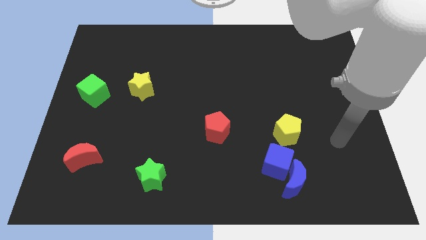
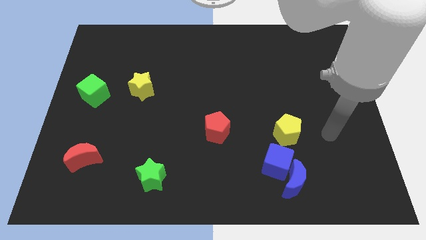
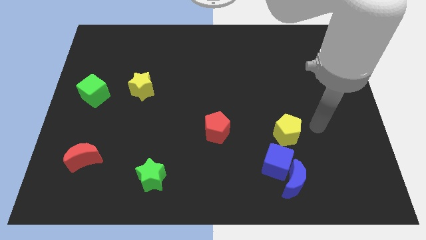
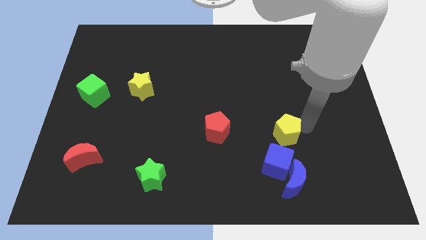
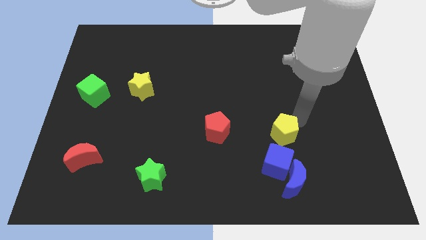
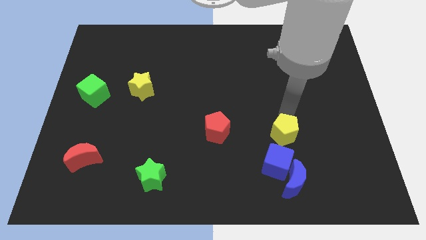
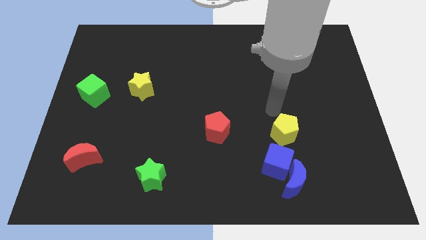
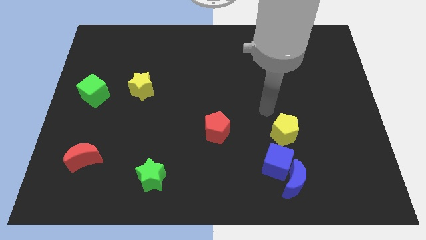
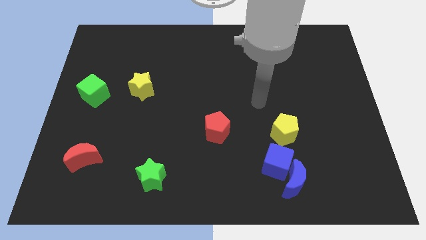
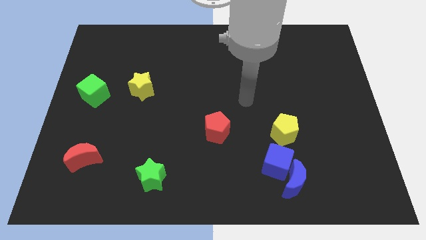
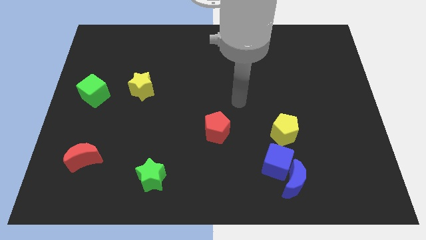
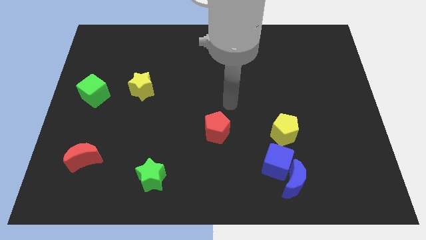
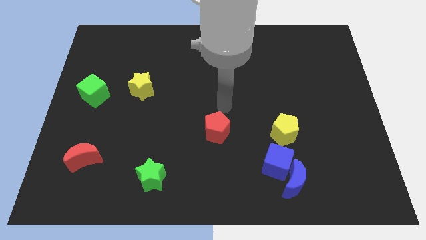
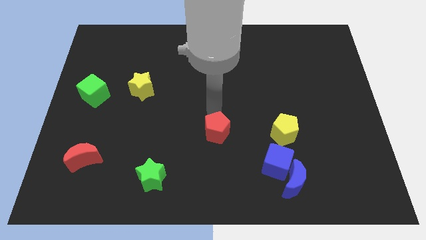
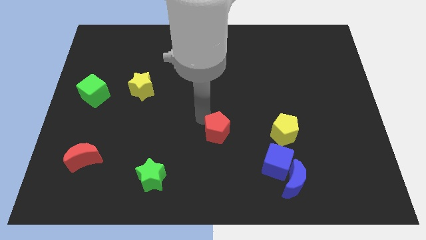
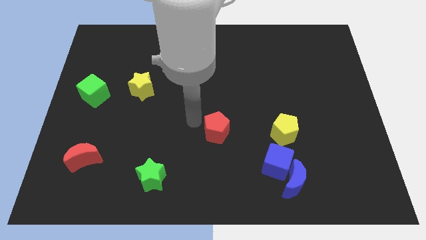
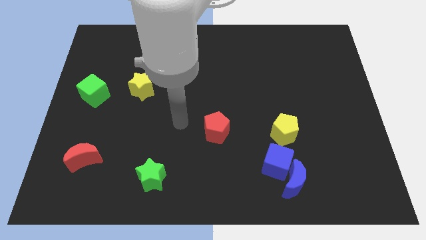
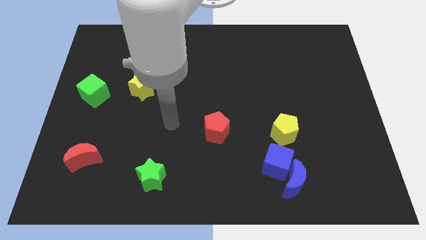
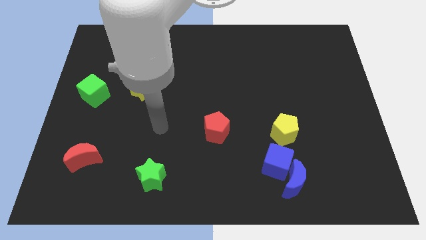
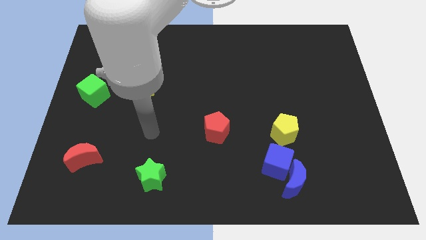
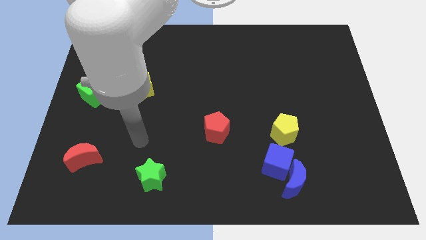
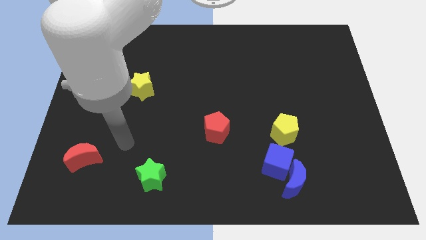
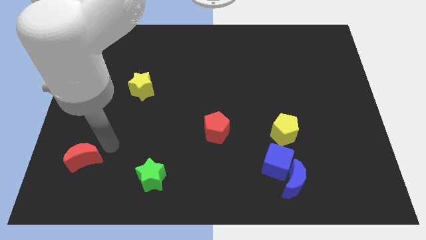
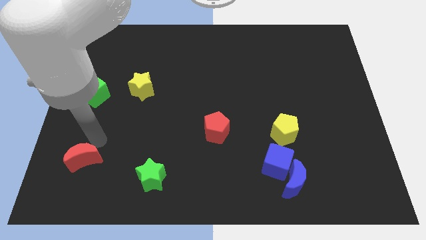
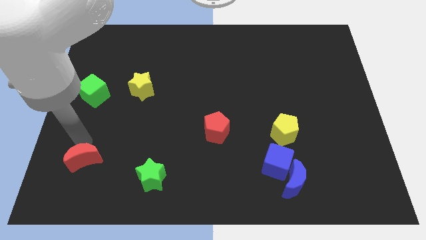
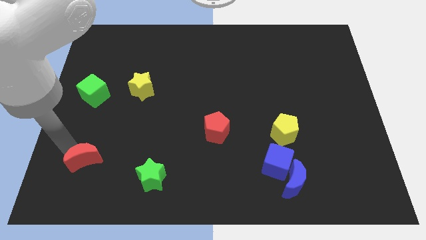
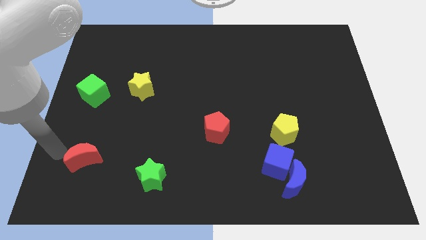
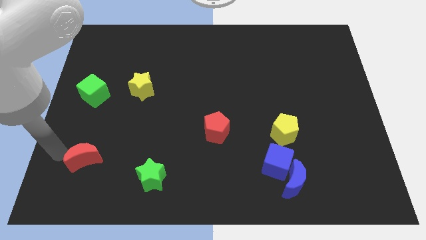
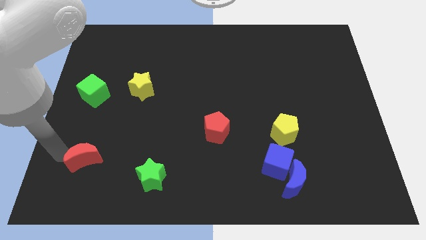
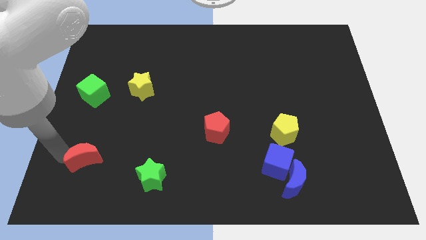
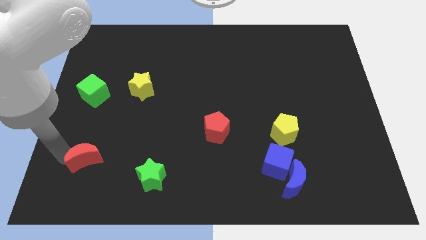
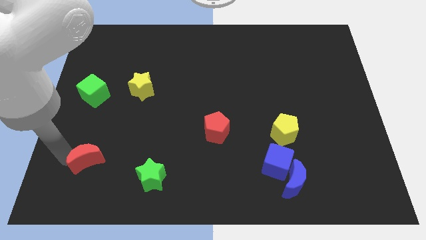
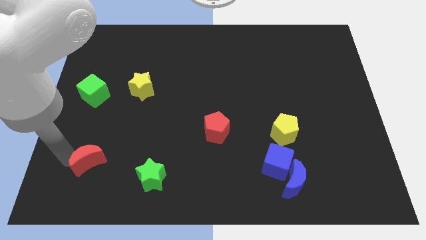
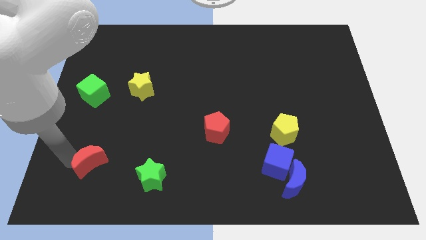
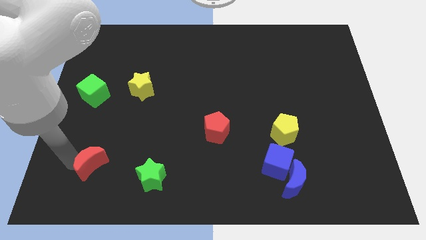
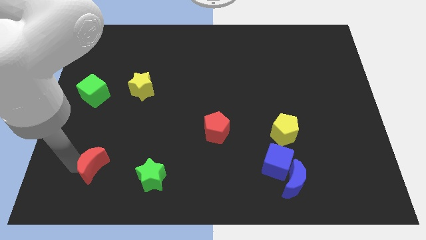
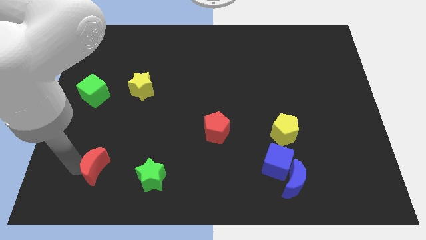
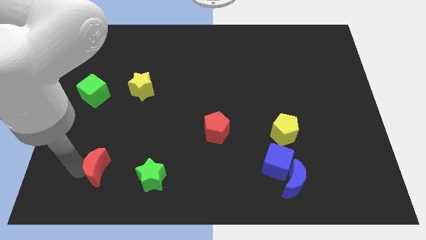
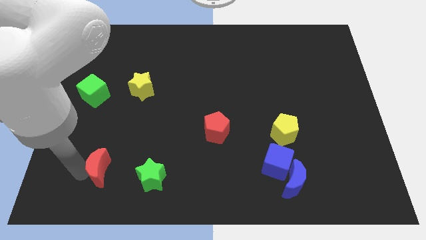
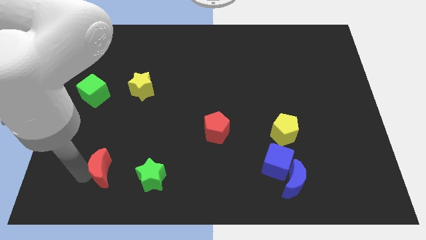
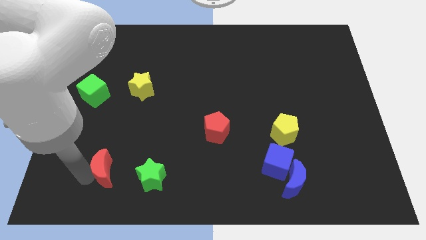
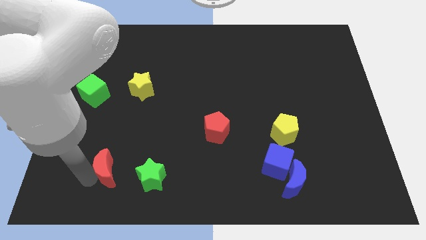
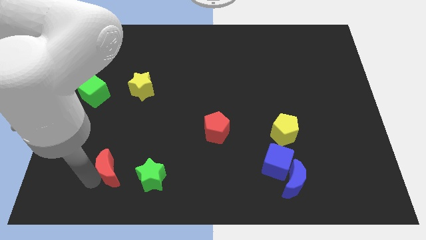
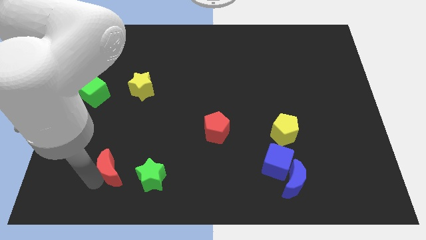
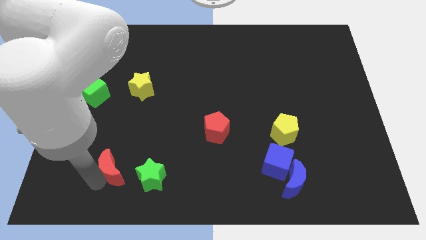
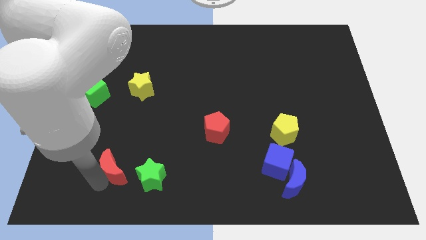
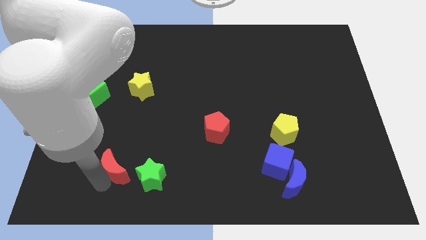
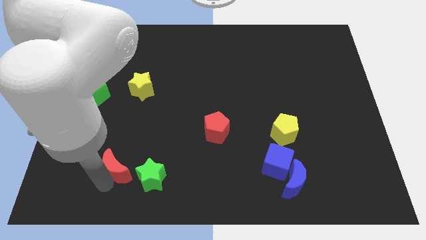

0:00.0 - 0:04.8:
move the red moon right slightly

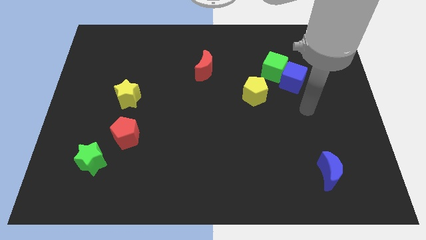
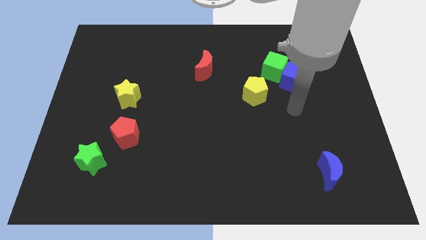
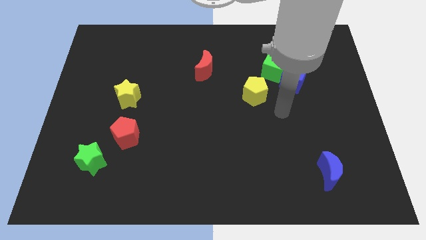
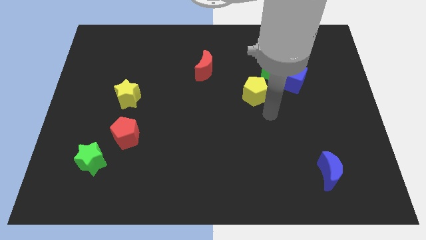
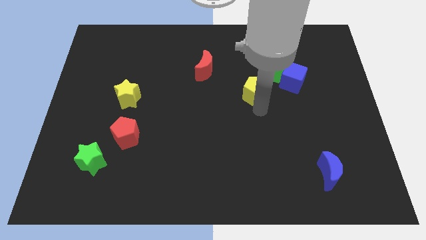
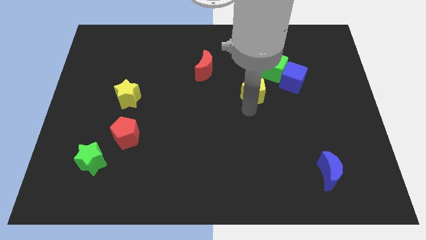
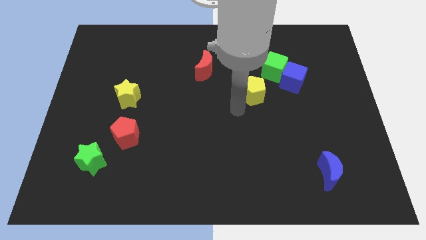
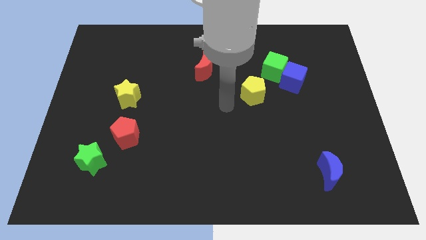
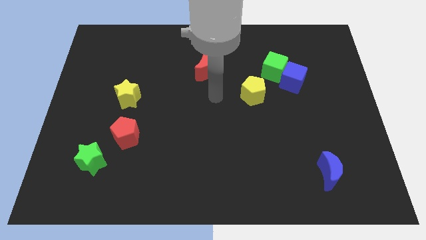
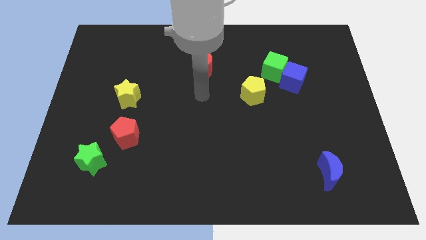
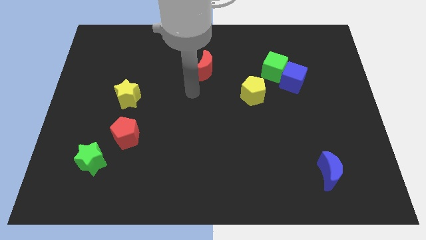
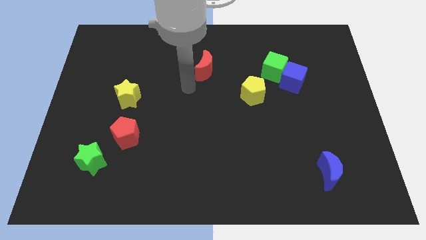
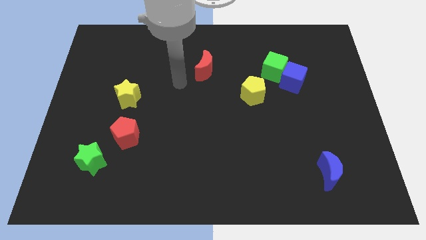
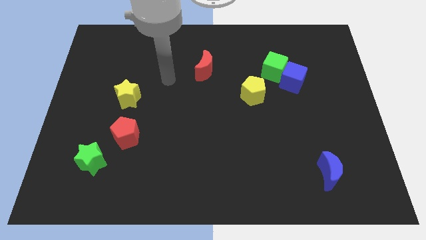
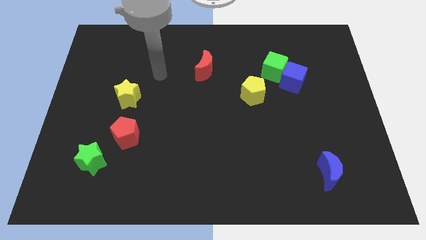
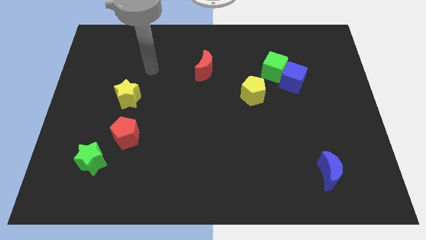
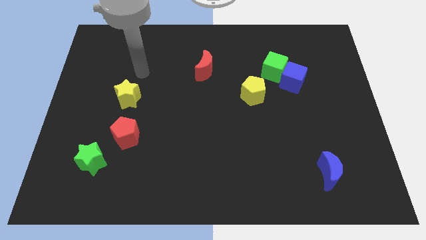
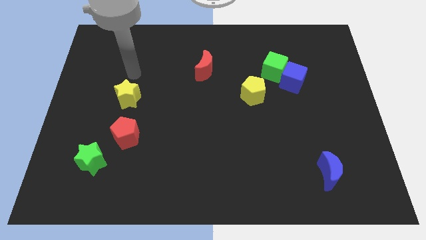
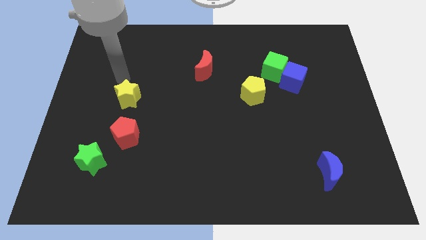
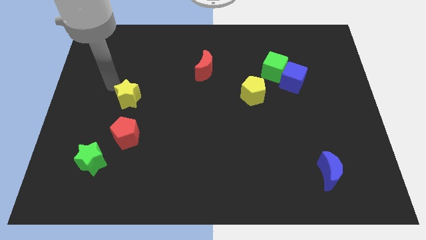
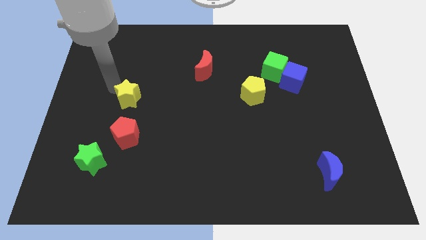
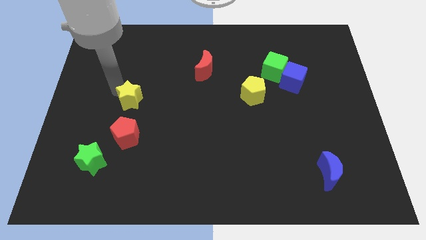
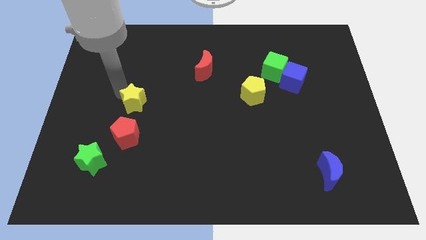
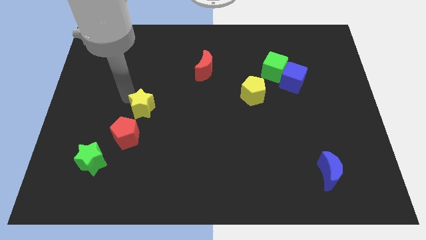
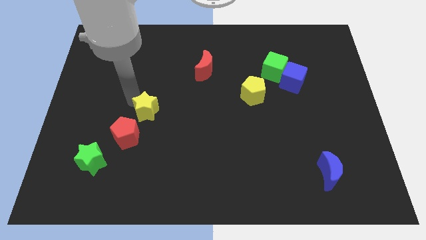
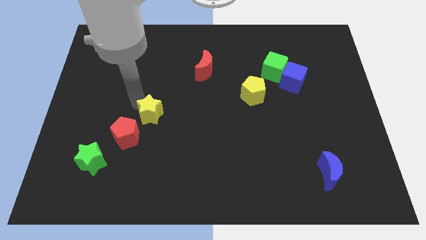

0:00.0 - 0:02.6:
move the yellow star a bit down and then right

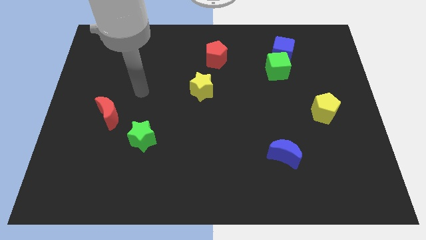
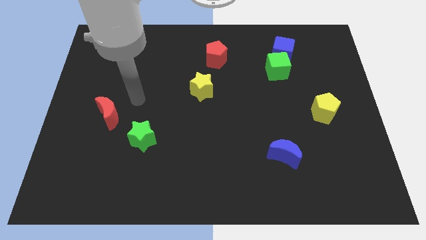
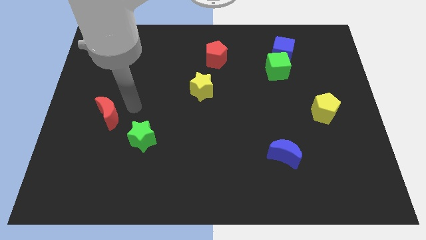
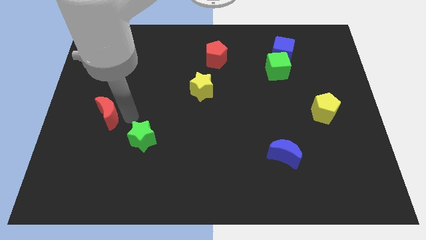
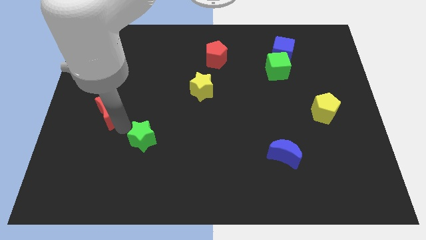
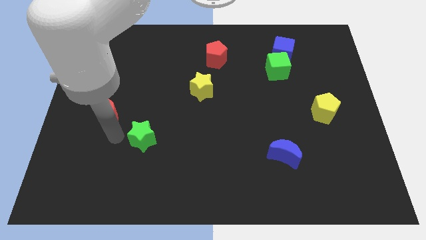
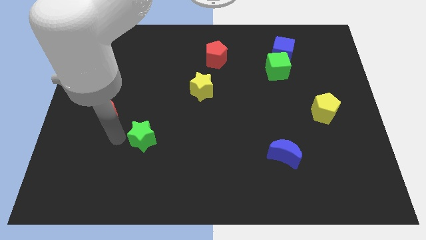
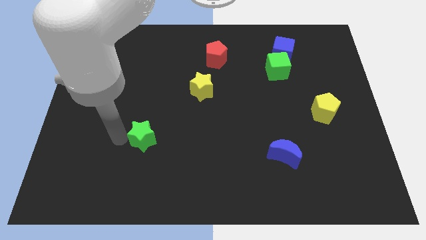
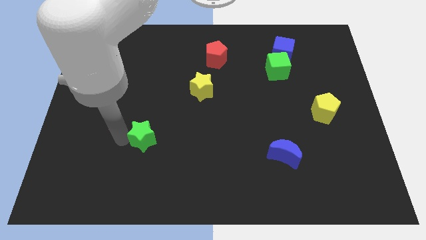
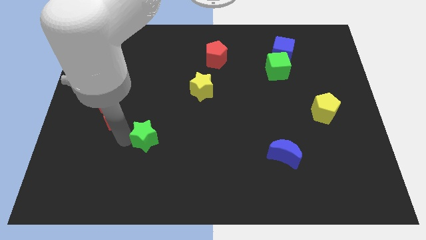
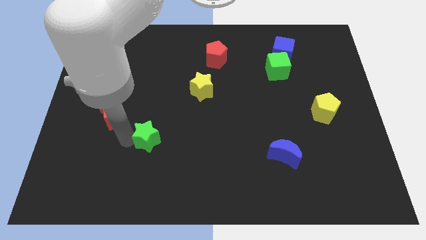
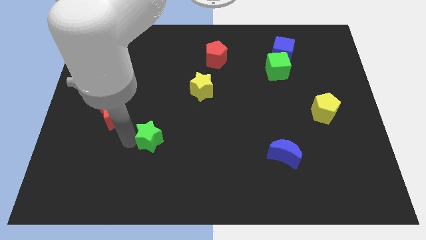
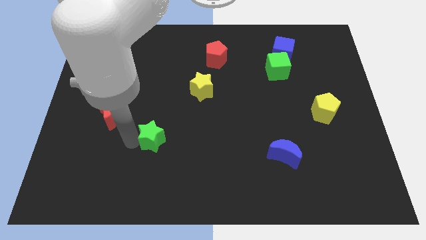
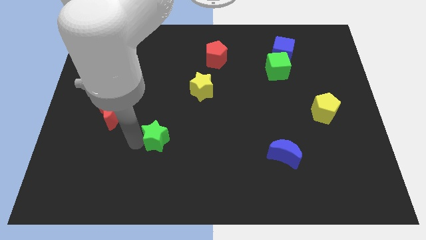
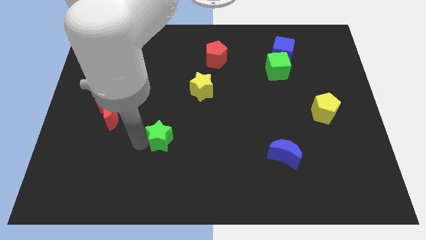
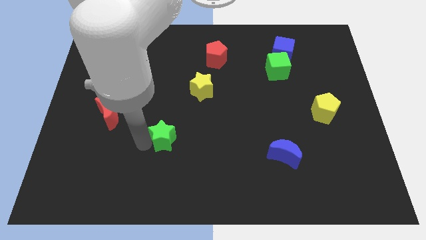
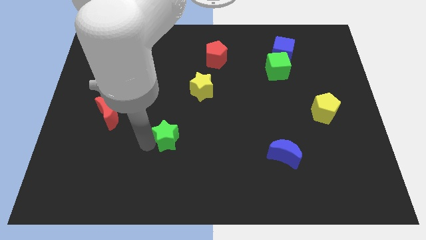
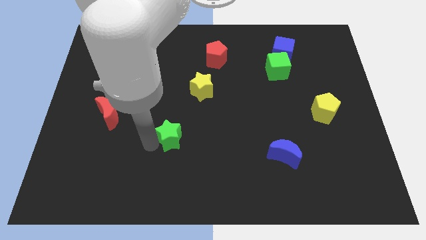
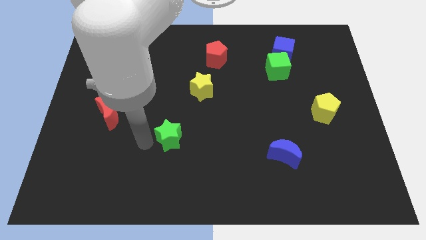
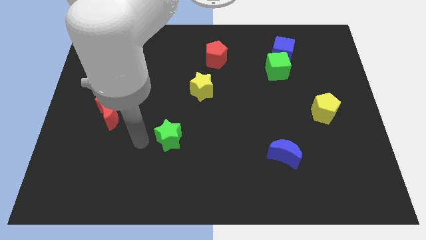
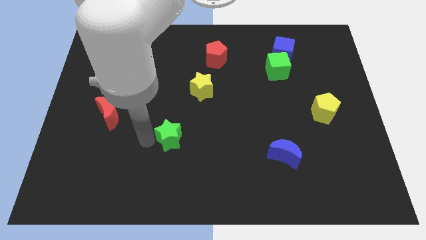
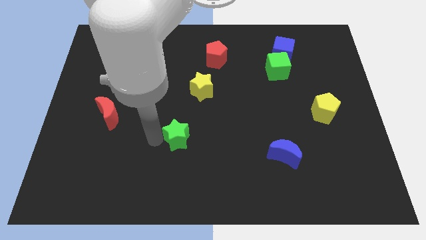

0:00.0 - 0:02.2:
slightly slide the green star to the right
